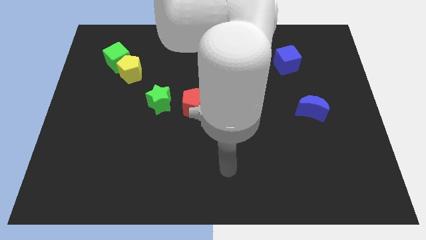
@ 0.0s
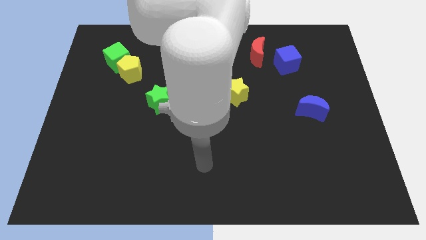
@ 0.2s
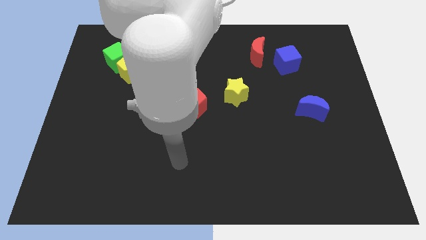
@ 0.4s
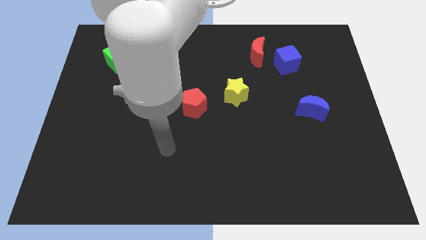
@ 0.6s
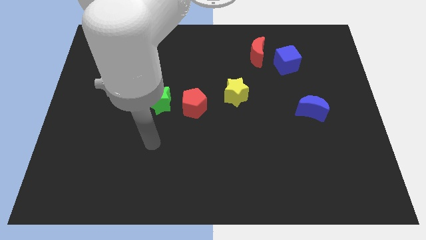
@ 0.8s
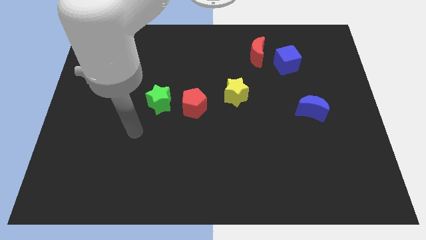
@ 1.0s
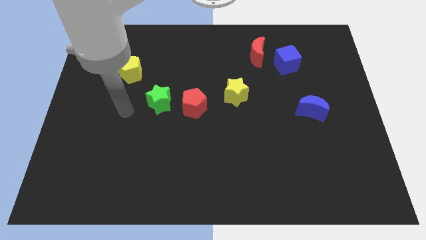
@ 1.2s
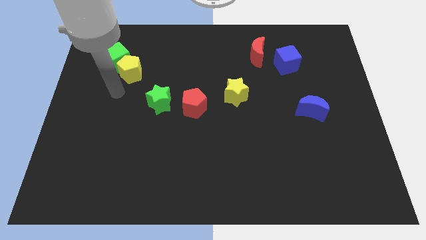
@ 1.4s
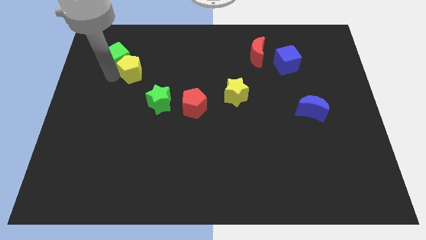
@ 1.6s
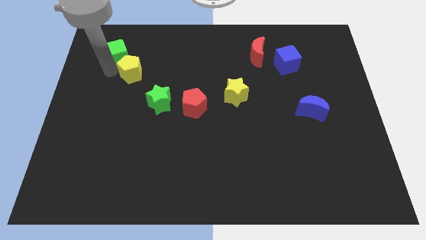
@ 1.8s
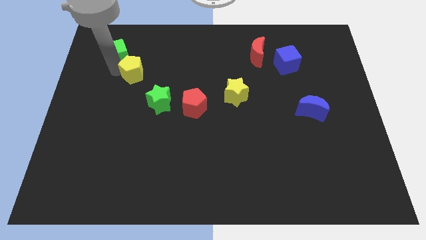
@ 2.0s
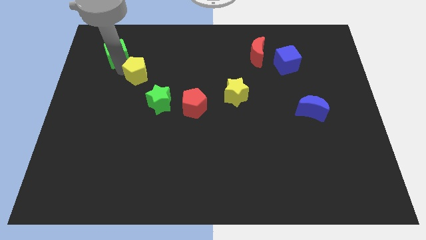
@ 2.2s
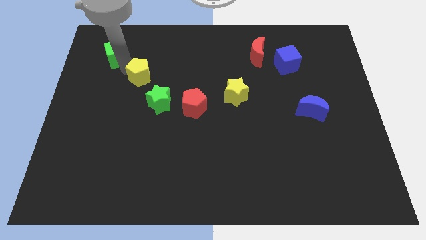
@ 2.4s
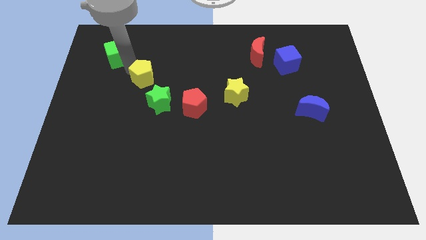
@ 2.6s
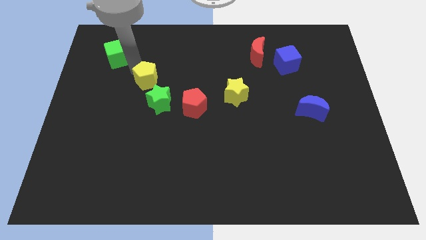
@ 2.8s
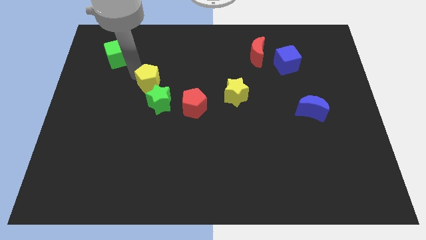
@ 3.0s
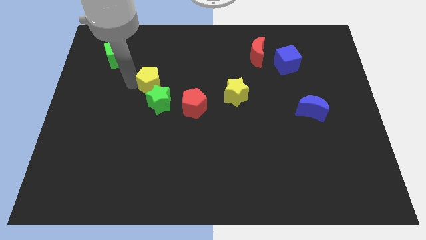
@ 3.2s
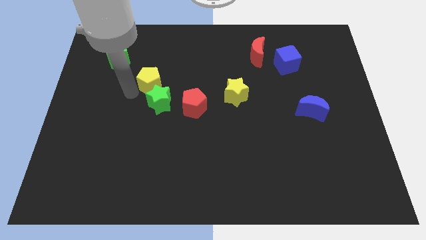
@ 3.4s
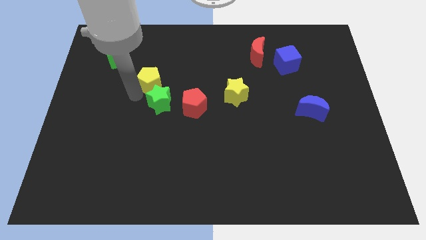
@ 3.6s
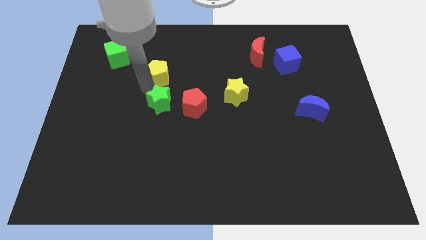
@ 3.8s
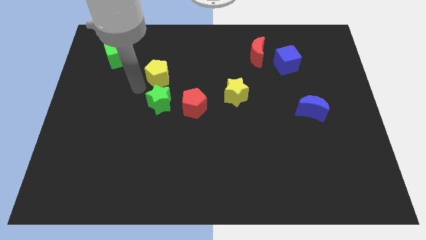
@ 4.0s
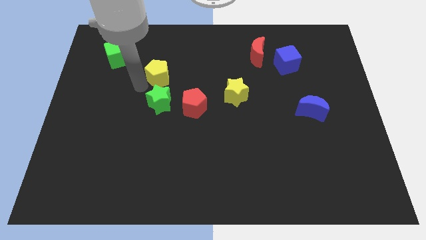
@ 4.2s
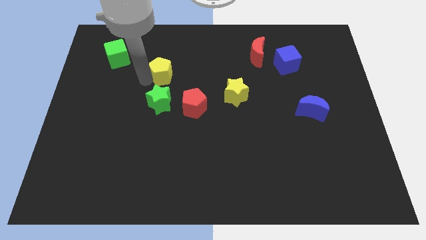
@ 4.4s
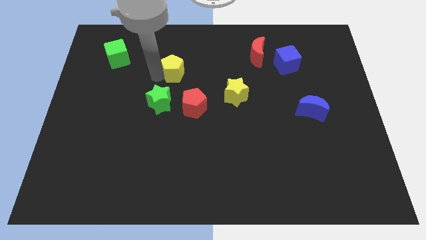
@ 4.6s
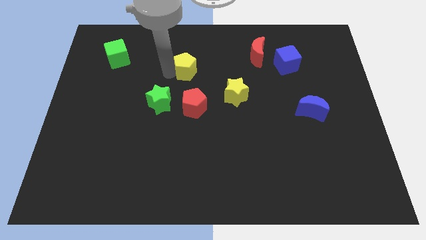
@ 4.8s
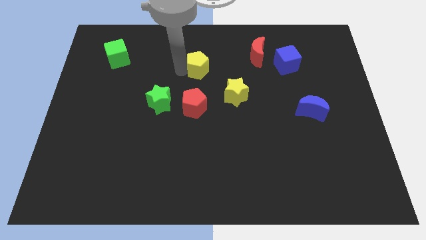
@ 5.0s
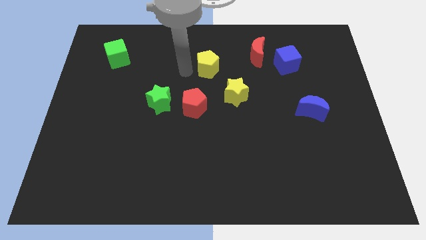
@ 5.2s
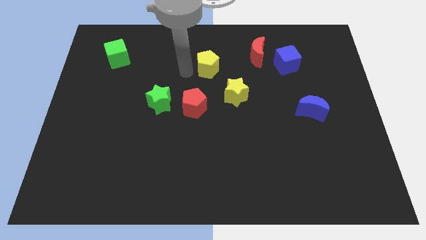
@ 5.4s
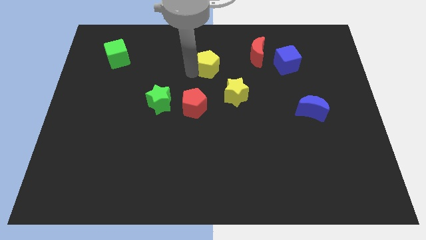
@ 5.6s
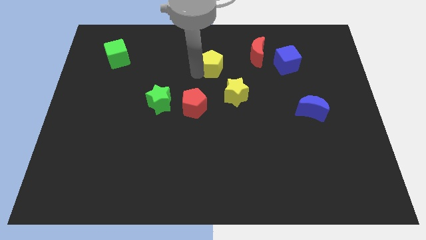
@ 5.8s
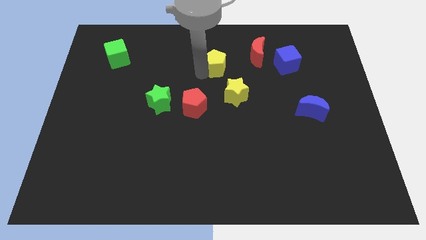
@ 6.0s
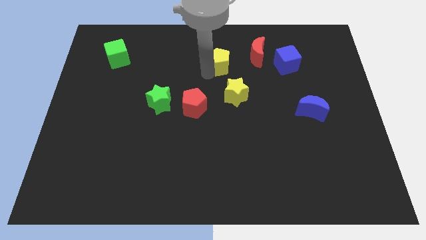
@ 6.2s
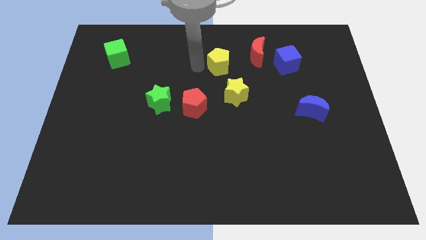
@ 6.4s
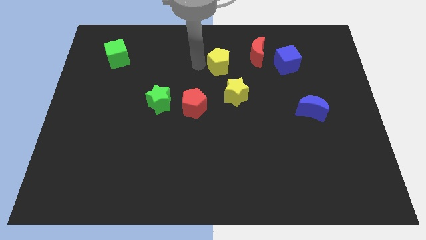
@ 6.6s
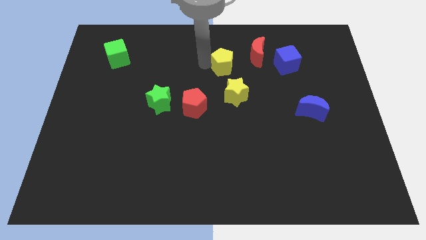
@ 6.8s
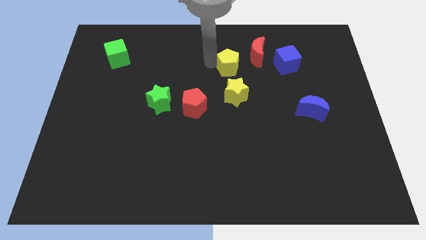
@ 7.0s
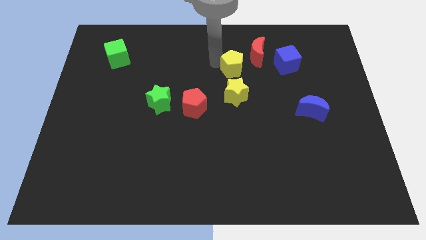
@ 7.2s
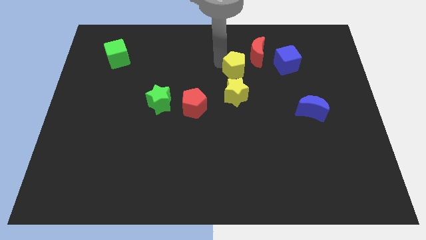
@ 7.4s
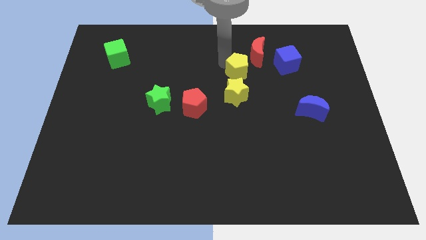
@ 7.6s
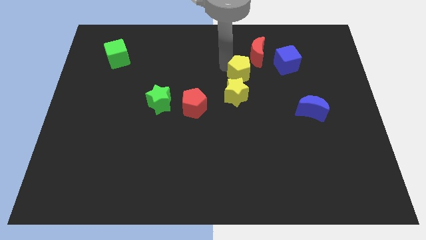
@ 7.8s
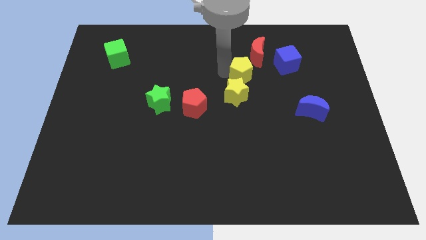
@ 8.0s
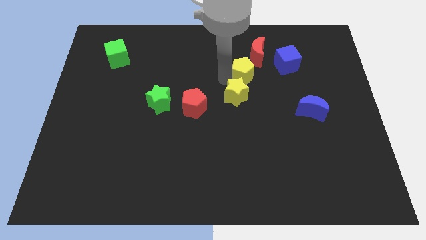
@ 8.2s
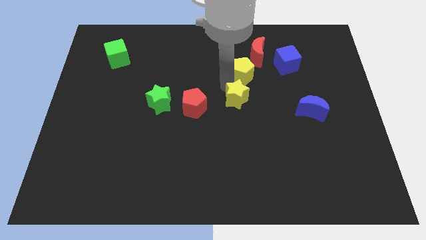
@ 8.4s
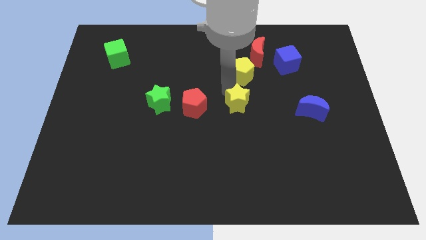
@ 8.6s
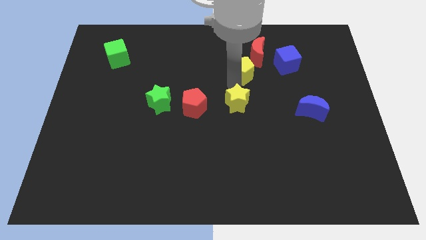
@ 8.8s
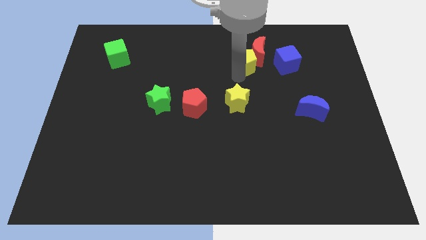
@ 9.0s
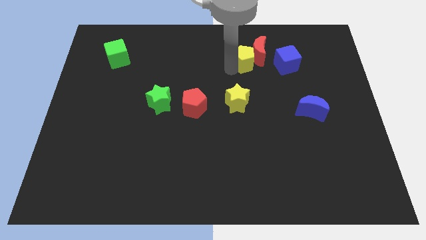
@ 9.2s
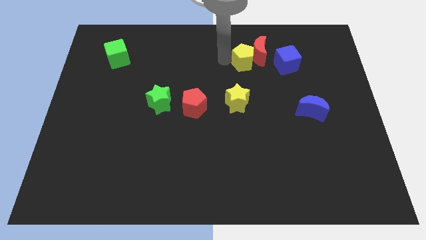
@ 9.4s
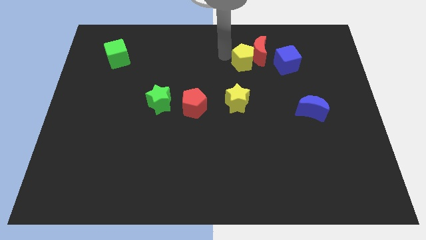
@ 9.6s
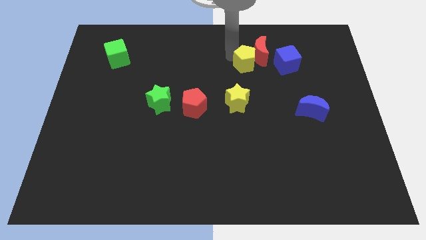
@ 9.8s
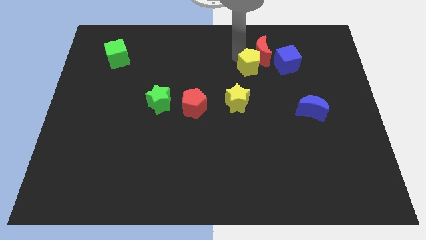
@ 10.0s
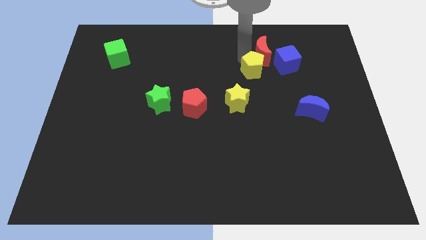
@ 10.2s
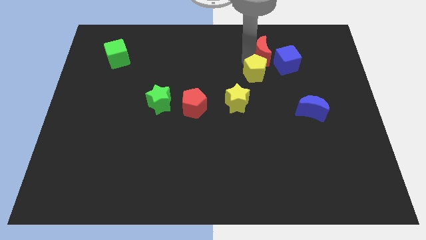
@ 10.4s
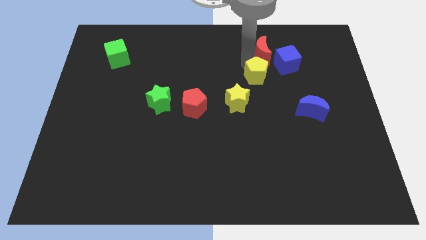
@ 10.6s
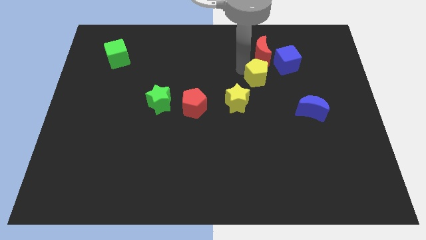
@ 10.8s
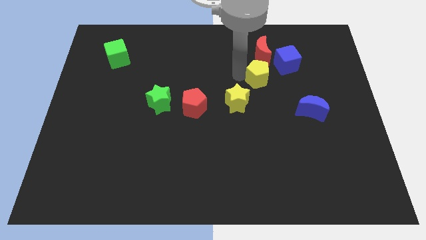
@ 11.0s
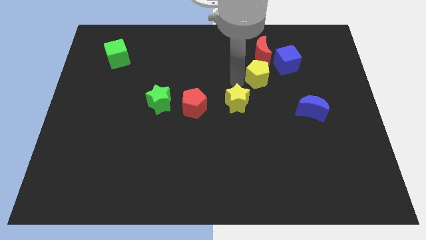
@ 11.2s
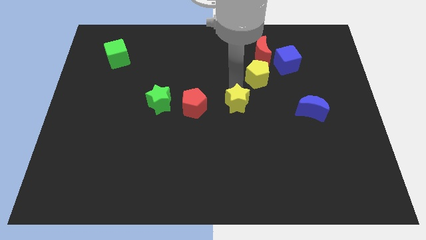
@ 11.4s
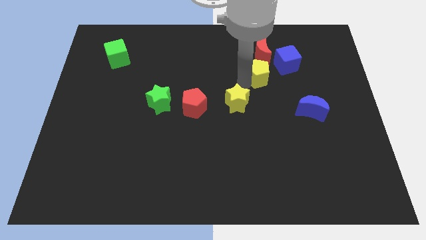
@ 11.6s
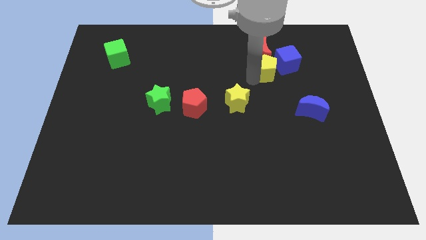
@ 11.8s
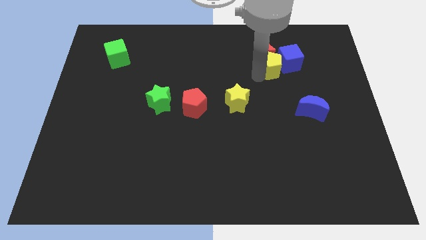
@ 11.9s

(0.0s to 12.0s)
put the yellow pentagon to the blue cube

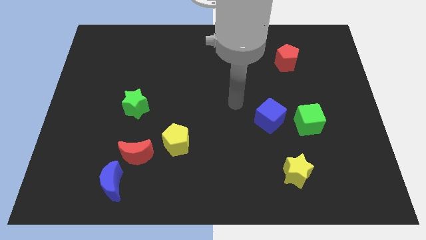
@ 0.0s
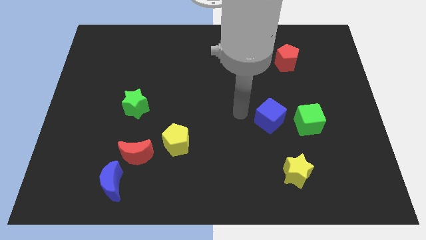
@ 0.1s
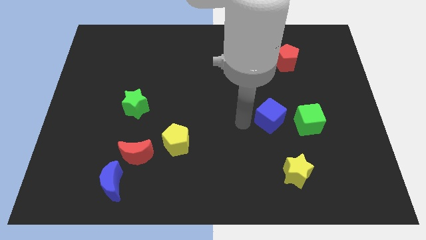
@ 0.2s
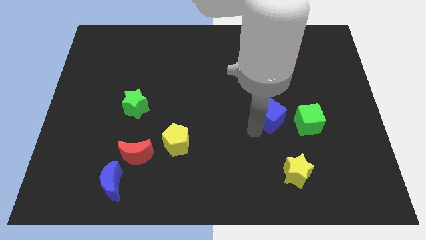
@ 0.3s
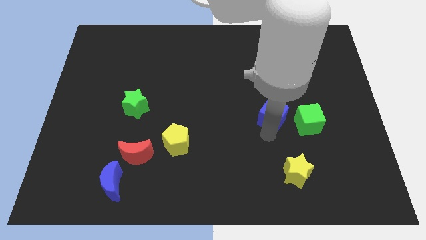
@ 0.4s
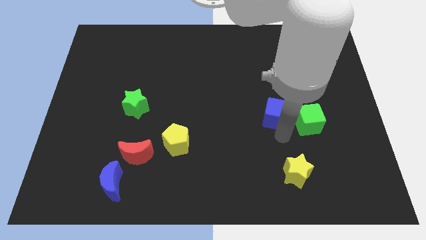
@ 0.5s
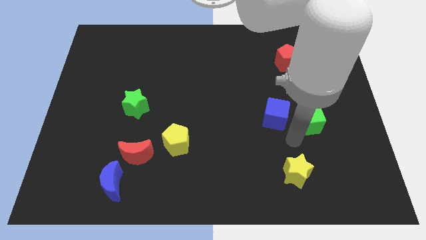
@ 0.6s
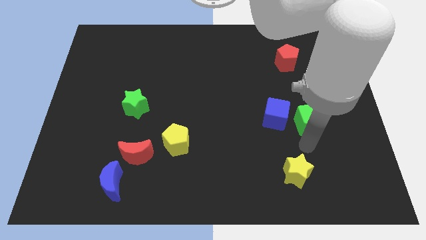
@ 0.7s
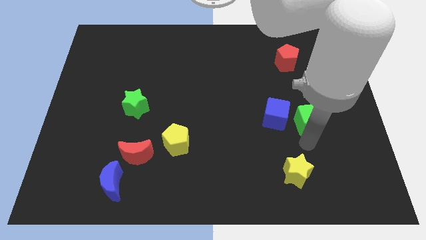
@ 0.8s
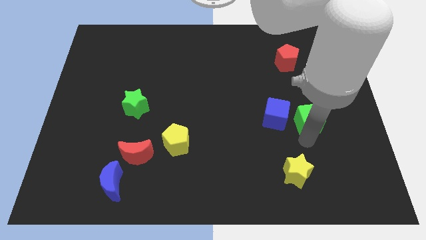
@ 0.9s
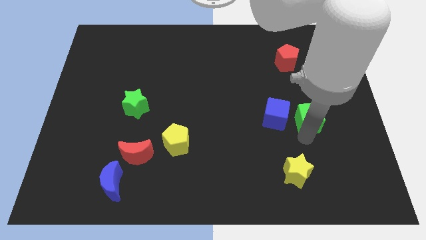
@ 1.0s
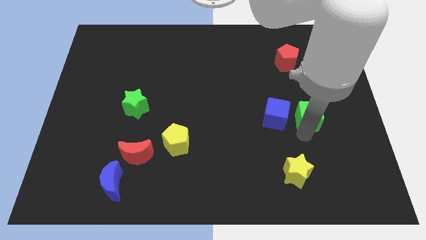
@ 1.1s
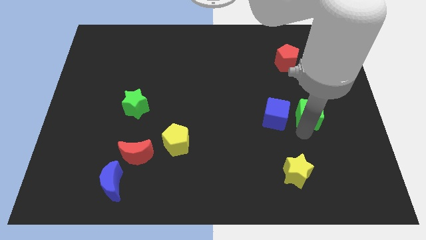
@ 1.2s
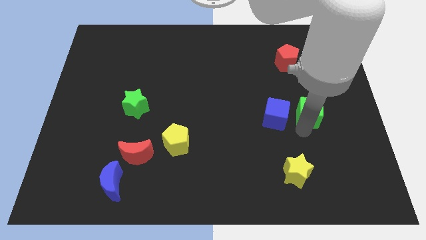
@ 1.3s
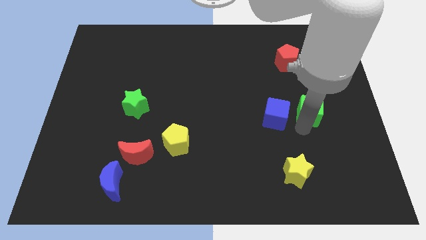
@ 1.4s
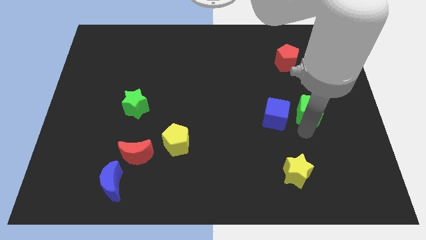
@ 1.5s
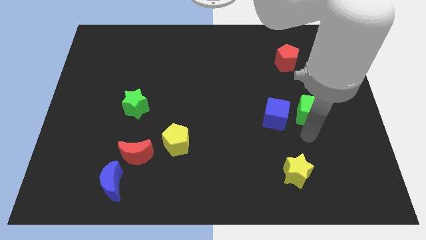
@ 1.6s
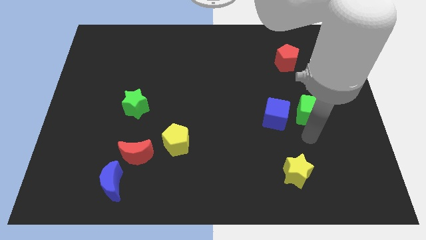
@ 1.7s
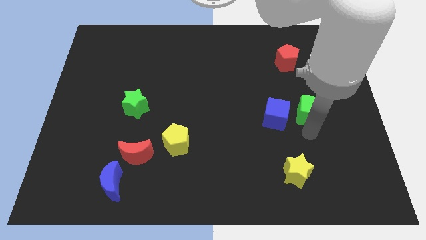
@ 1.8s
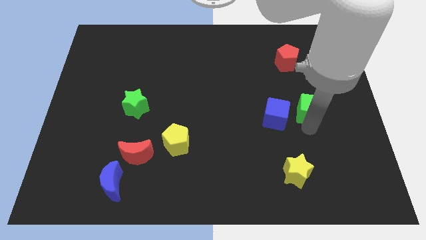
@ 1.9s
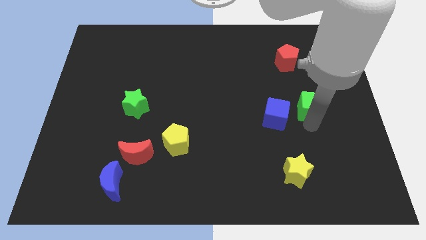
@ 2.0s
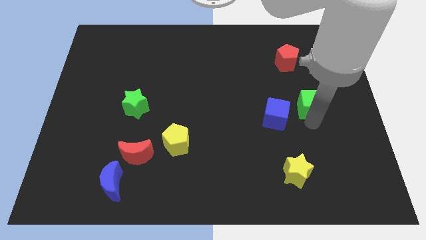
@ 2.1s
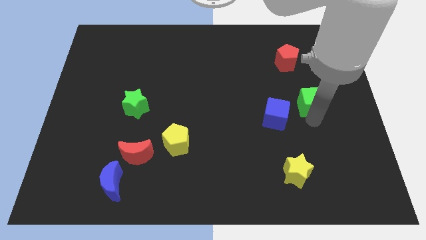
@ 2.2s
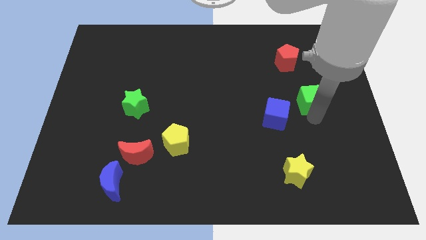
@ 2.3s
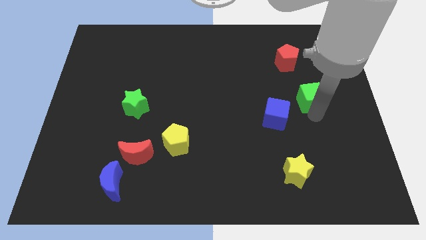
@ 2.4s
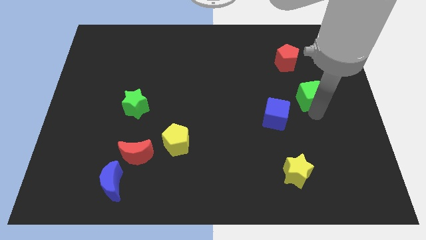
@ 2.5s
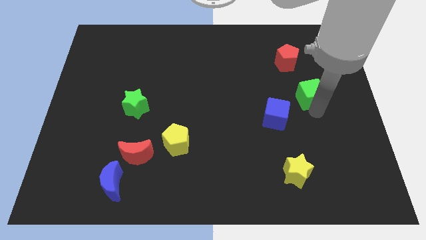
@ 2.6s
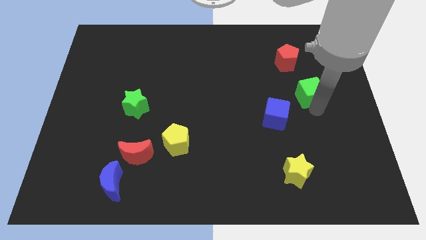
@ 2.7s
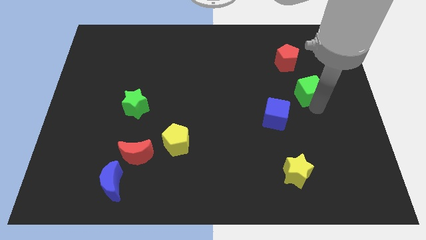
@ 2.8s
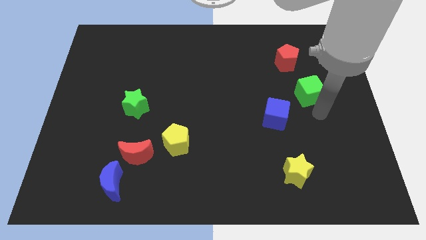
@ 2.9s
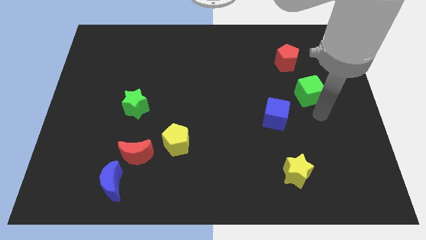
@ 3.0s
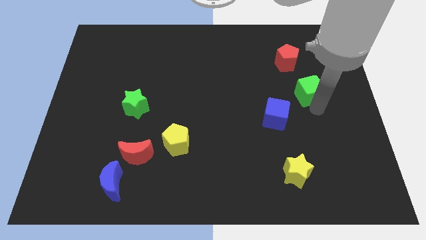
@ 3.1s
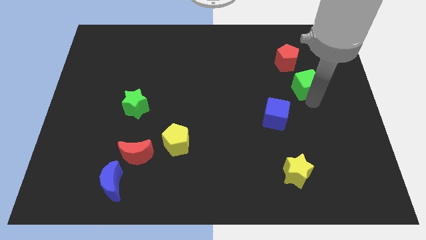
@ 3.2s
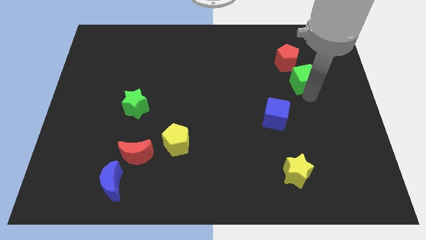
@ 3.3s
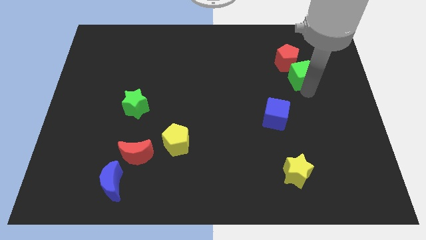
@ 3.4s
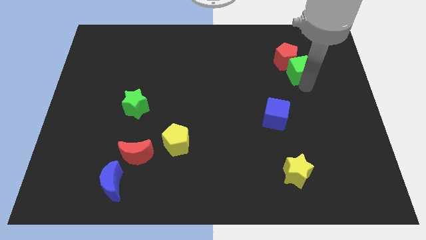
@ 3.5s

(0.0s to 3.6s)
put the green cube close to the red pentagon
